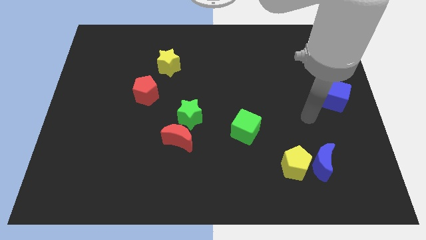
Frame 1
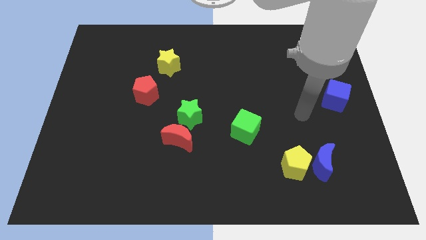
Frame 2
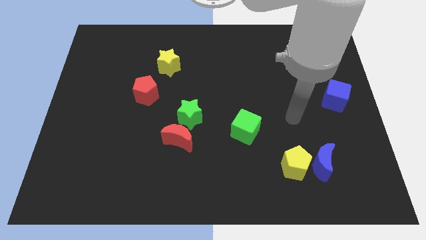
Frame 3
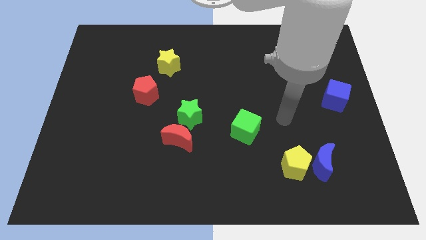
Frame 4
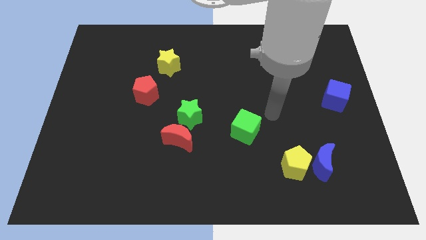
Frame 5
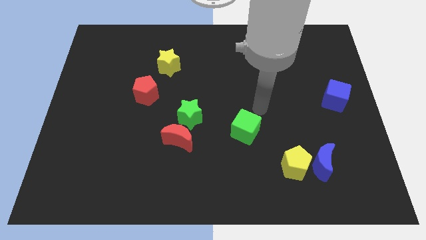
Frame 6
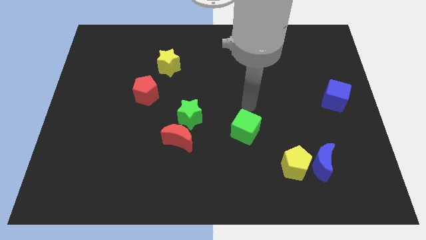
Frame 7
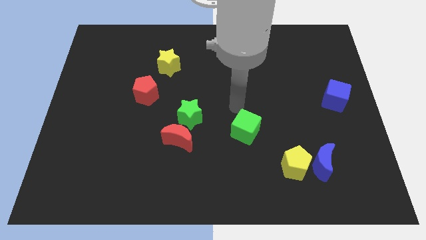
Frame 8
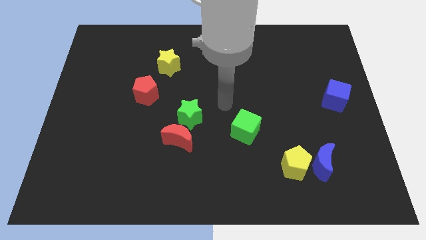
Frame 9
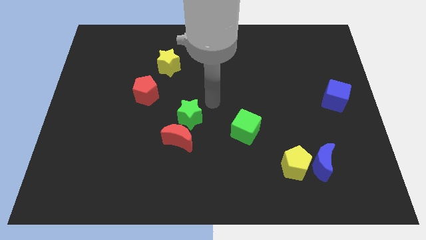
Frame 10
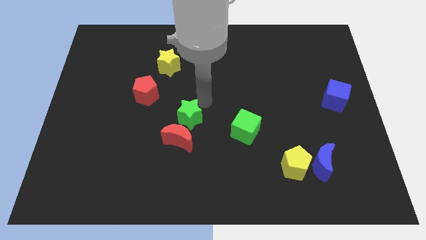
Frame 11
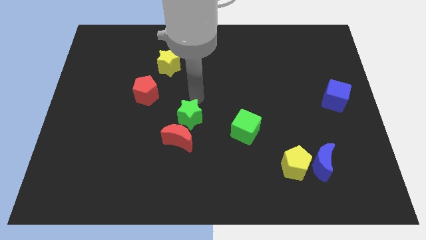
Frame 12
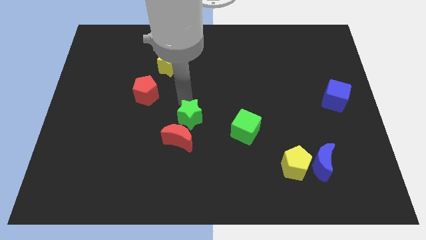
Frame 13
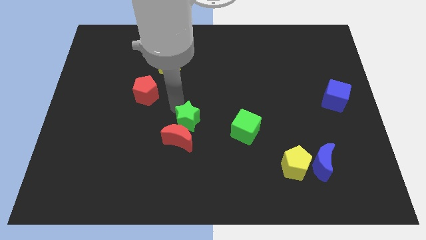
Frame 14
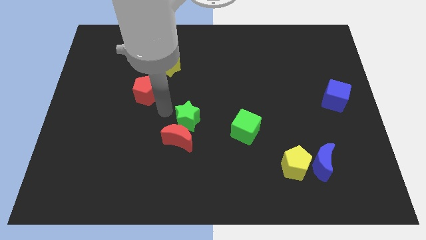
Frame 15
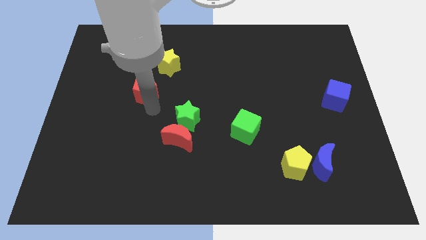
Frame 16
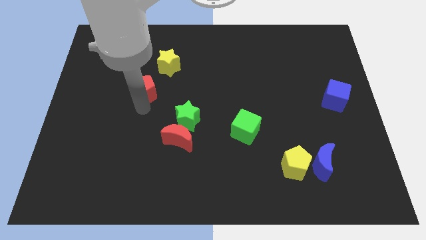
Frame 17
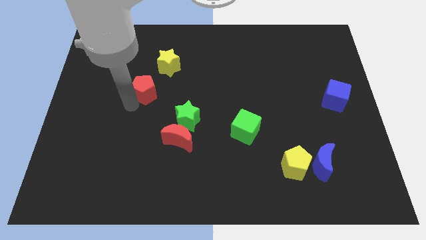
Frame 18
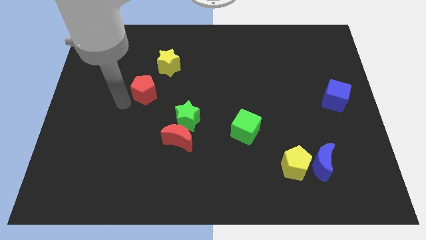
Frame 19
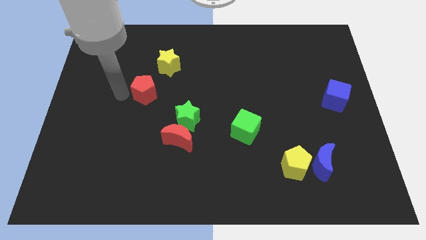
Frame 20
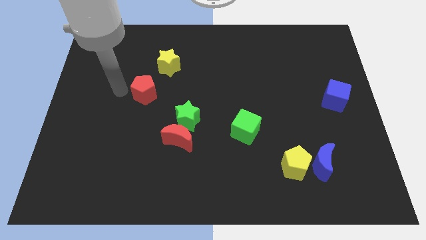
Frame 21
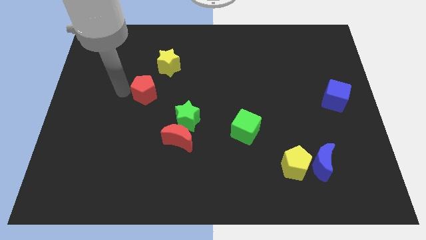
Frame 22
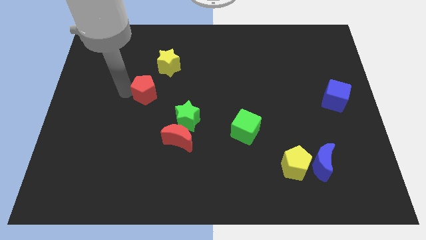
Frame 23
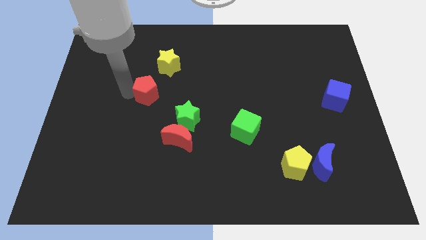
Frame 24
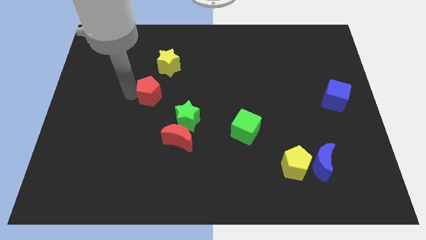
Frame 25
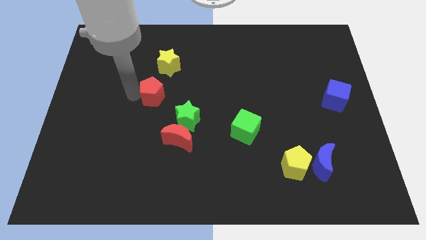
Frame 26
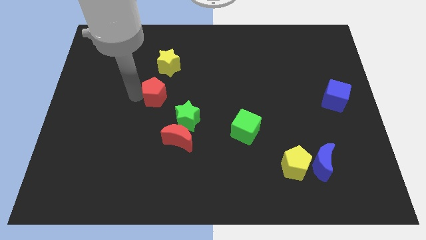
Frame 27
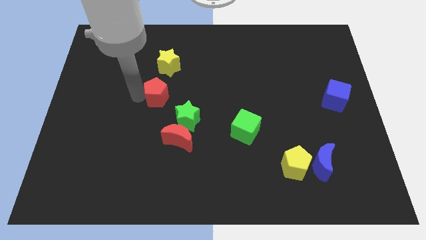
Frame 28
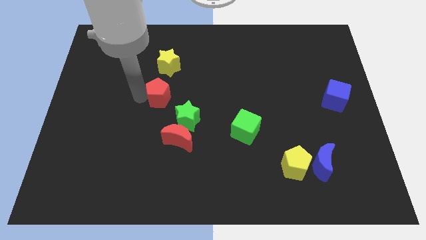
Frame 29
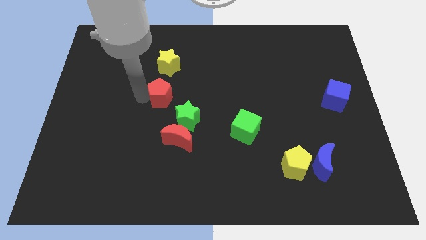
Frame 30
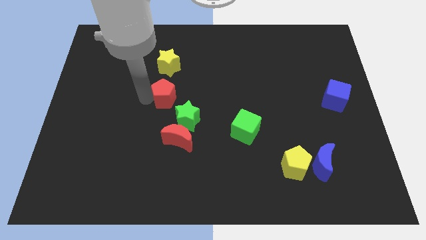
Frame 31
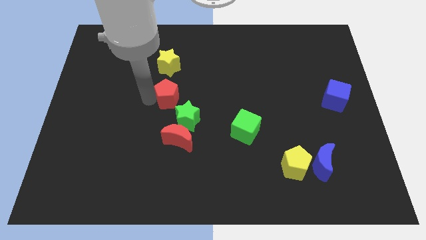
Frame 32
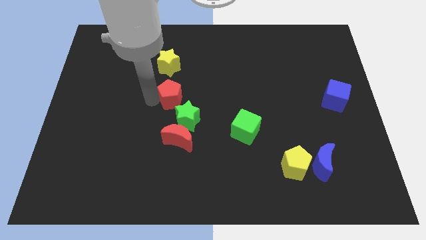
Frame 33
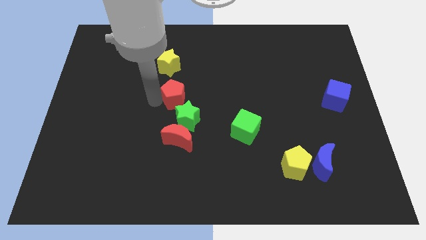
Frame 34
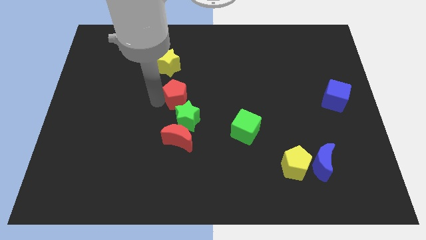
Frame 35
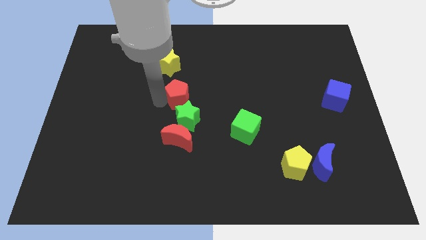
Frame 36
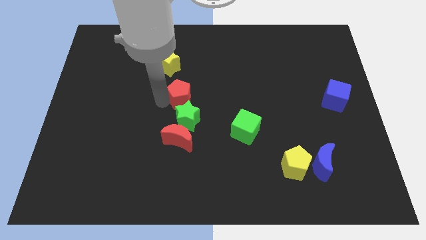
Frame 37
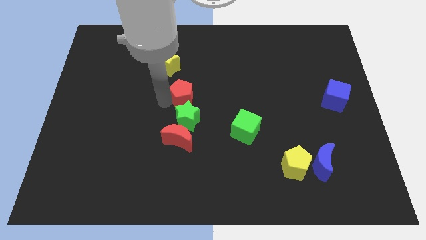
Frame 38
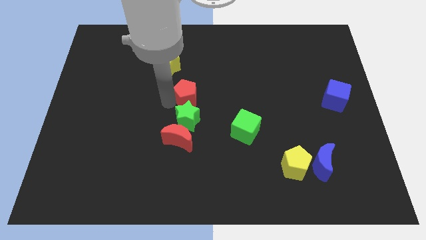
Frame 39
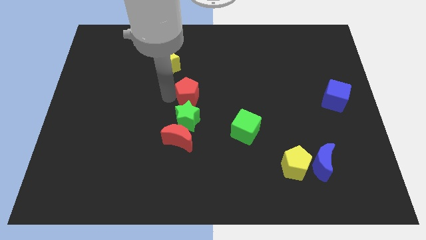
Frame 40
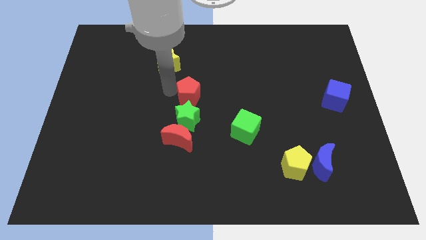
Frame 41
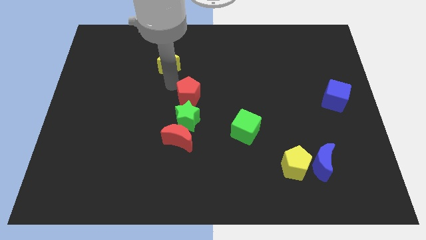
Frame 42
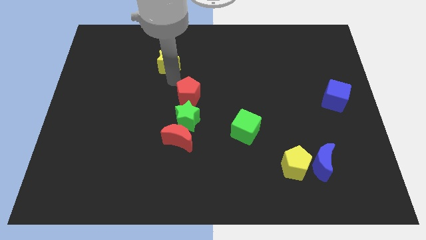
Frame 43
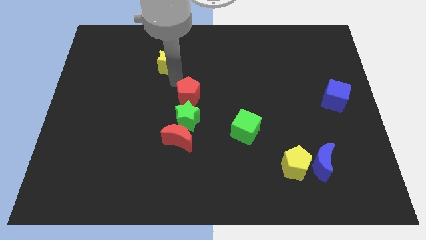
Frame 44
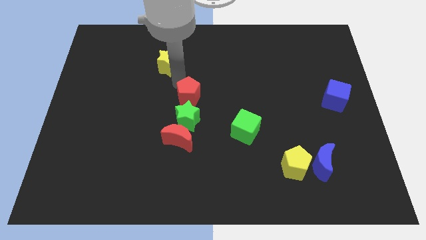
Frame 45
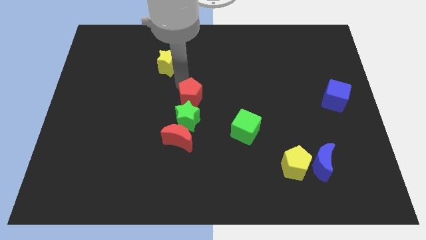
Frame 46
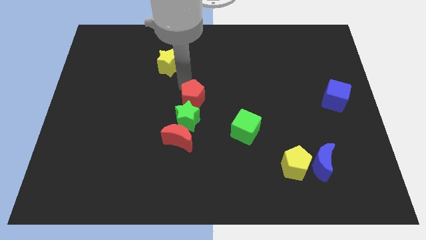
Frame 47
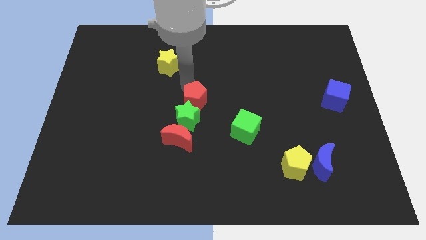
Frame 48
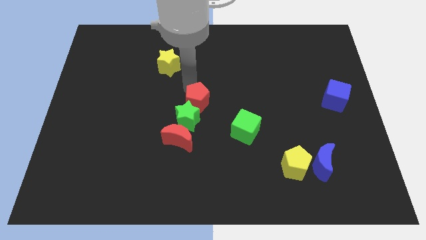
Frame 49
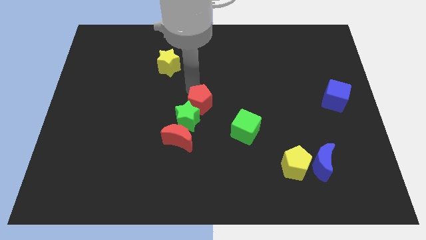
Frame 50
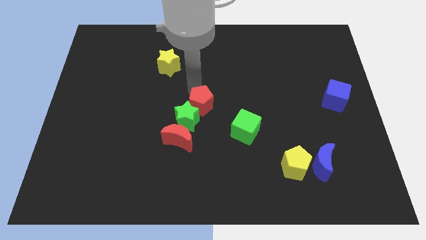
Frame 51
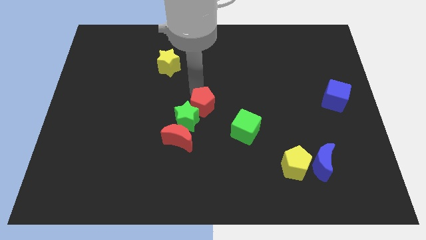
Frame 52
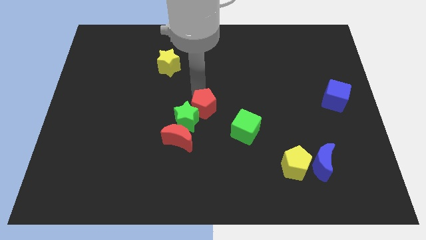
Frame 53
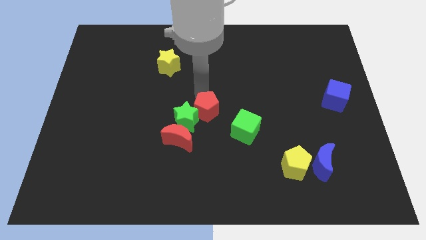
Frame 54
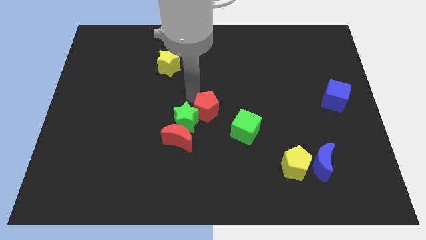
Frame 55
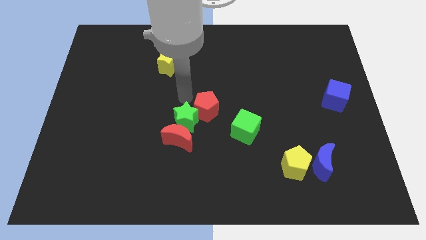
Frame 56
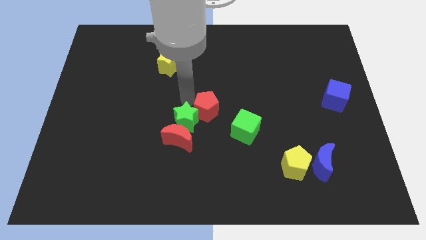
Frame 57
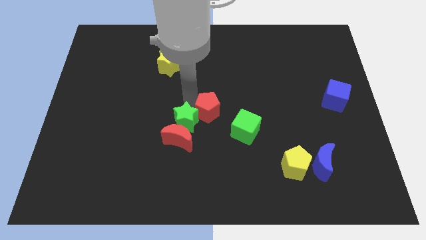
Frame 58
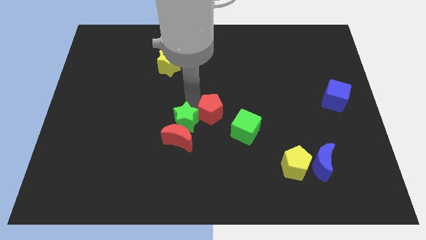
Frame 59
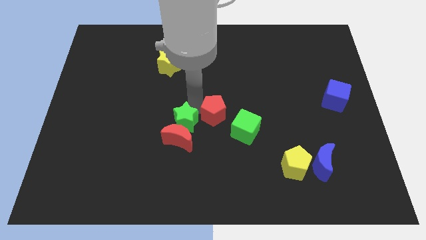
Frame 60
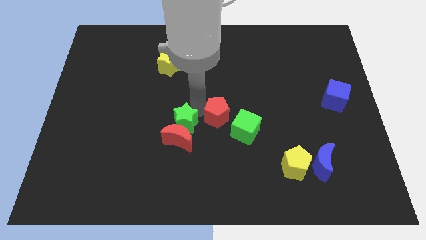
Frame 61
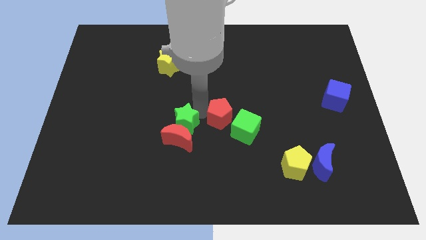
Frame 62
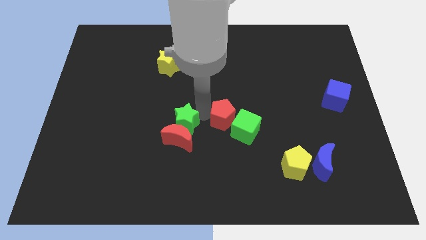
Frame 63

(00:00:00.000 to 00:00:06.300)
move the red pentagon towards the green cube

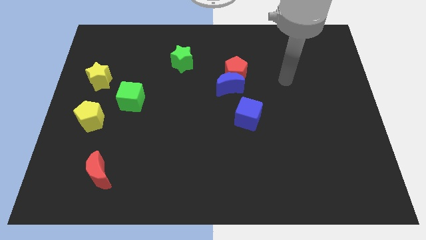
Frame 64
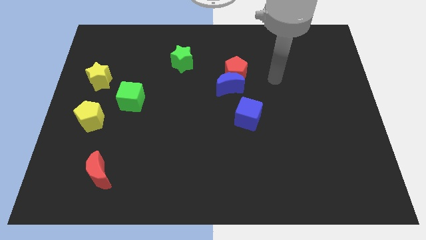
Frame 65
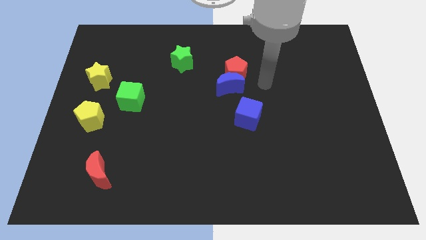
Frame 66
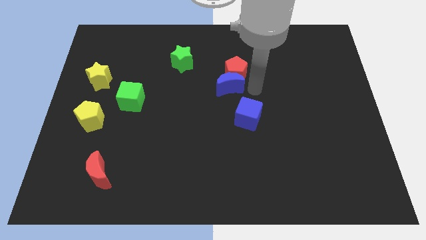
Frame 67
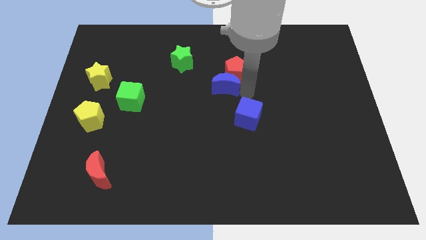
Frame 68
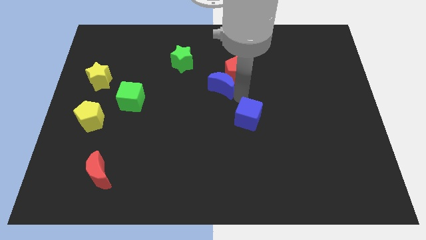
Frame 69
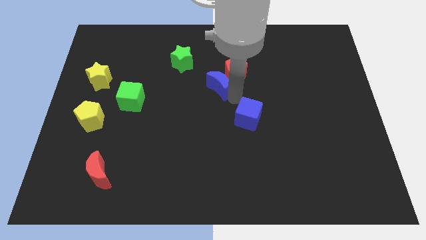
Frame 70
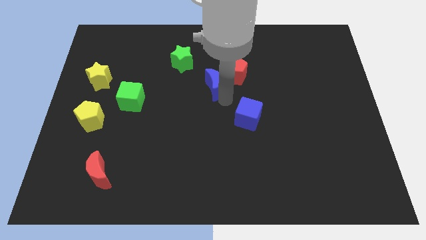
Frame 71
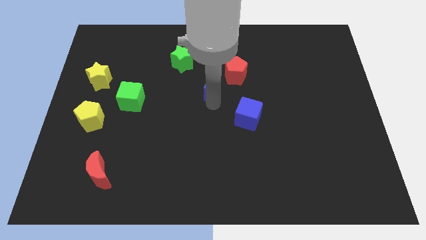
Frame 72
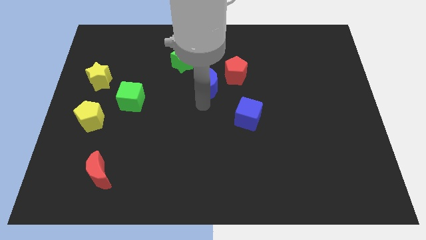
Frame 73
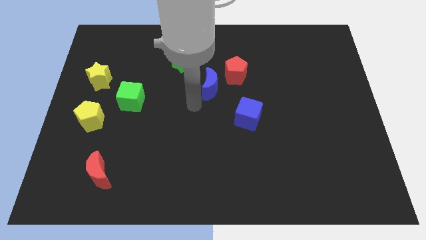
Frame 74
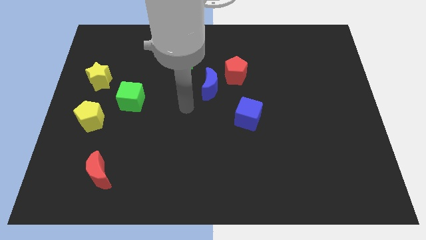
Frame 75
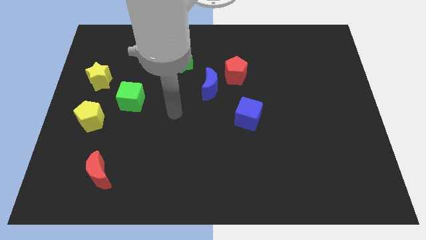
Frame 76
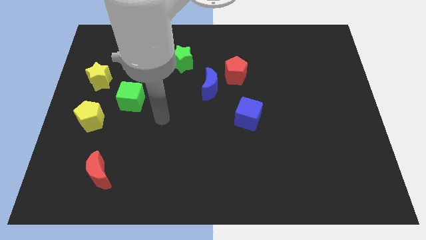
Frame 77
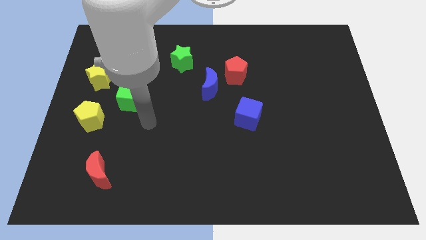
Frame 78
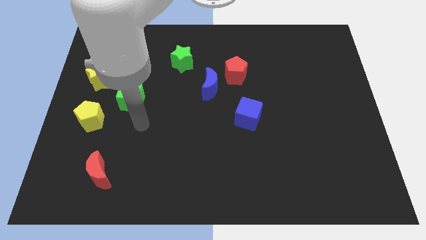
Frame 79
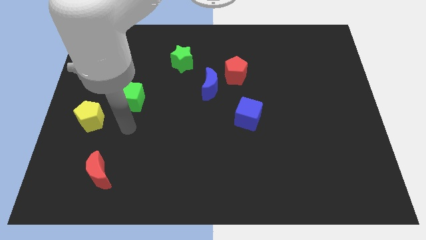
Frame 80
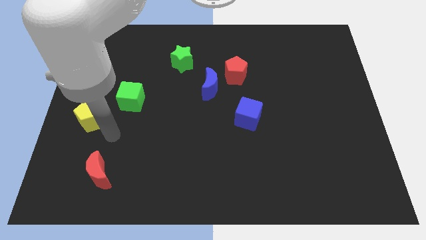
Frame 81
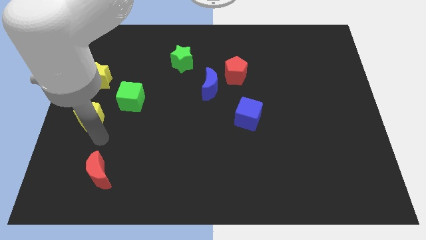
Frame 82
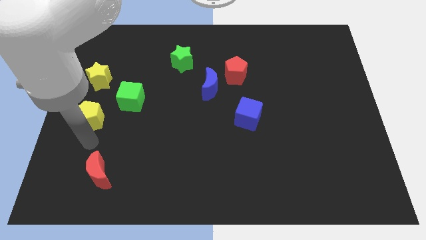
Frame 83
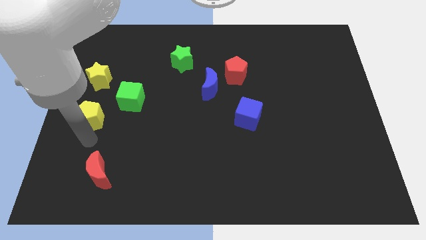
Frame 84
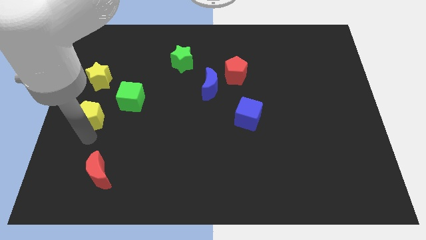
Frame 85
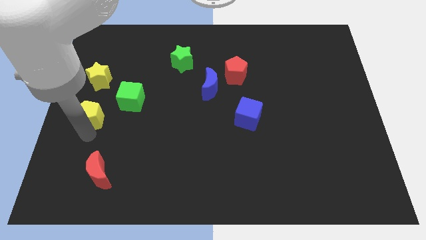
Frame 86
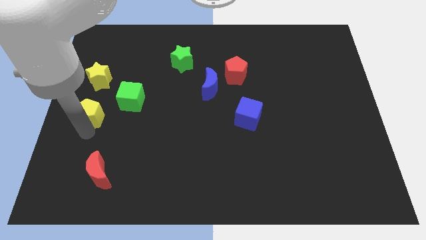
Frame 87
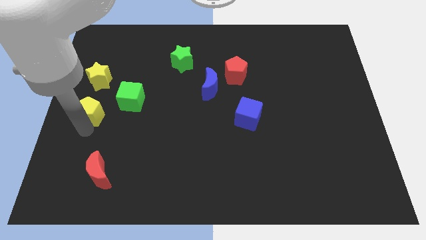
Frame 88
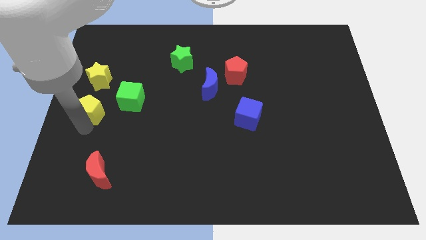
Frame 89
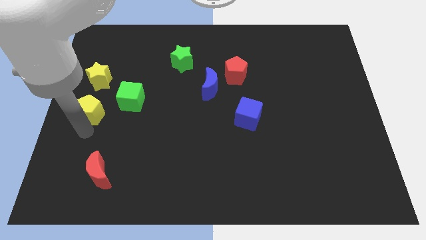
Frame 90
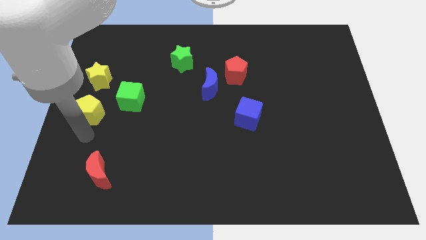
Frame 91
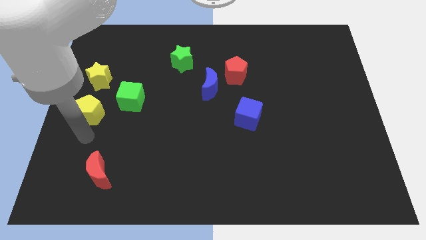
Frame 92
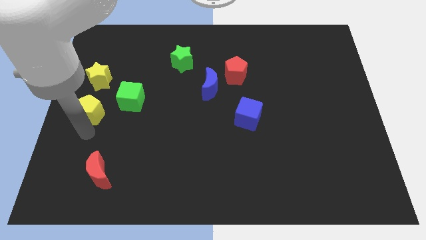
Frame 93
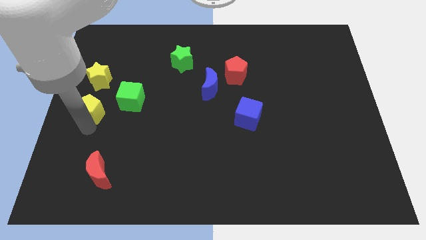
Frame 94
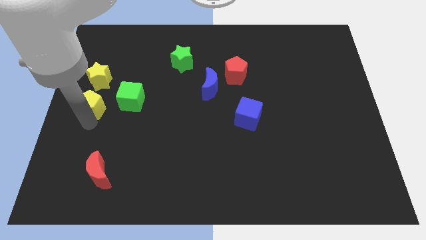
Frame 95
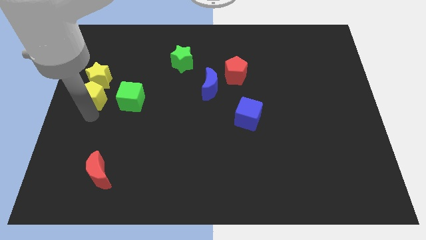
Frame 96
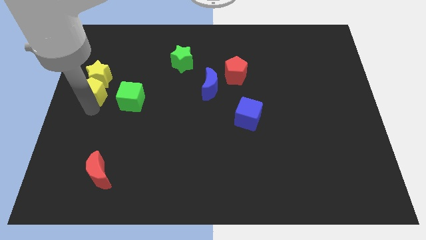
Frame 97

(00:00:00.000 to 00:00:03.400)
slide the yellow pentagon to the yellow star
